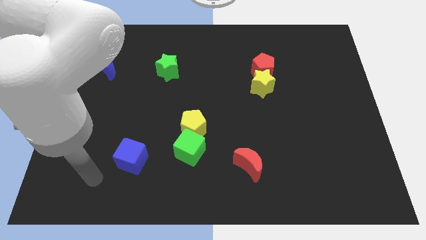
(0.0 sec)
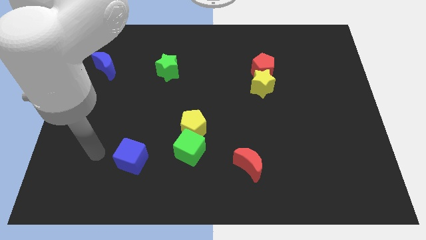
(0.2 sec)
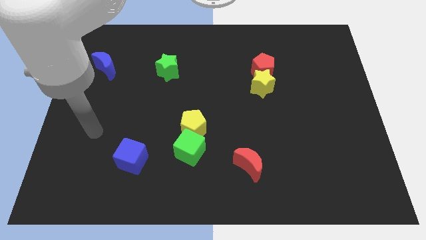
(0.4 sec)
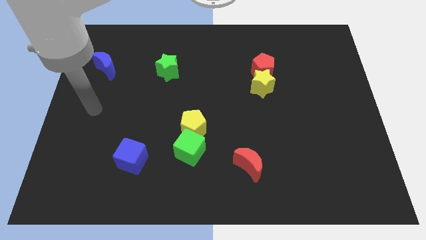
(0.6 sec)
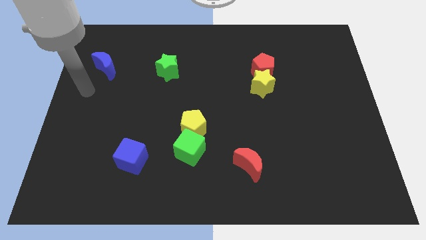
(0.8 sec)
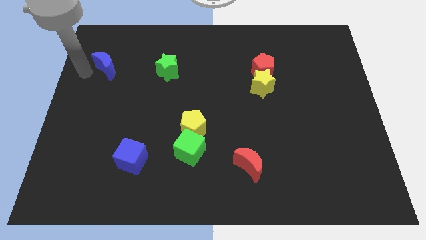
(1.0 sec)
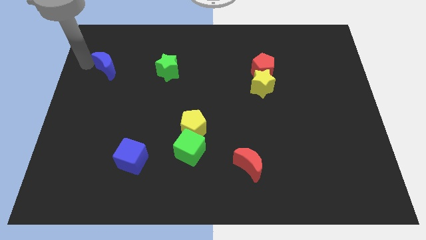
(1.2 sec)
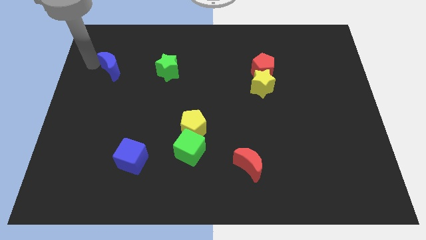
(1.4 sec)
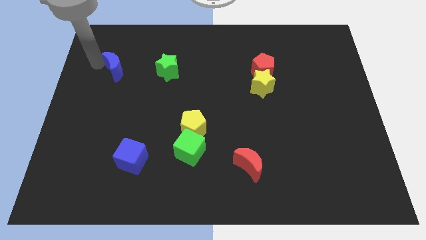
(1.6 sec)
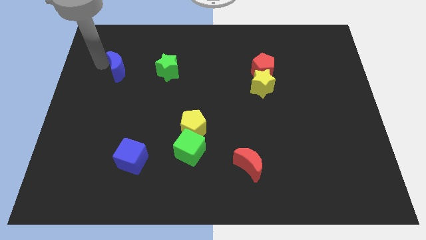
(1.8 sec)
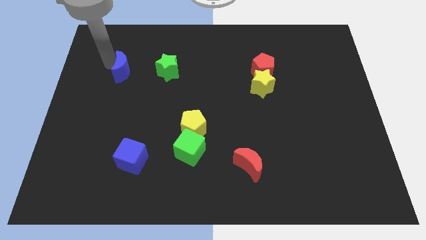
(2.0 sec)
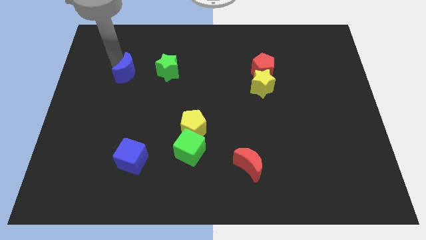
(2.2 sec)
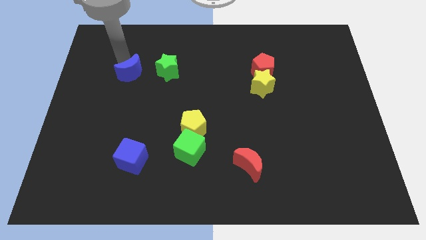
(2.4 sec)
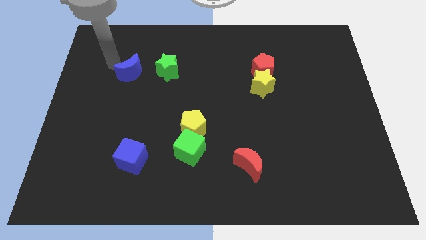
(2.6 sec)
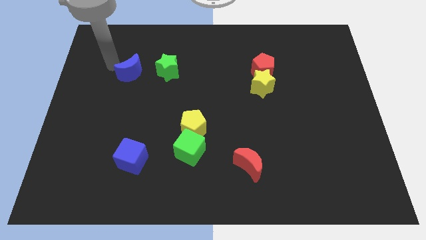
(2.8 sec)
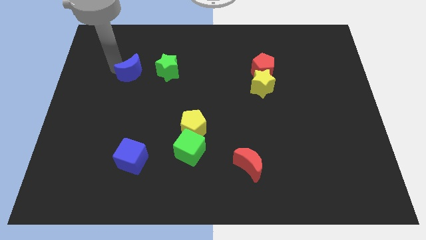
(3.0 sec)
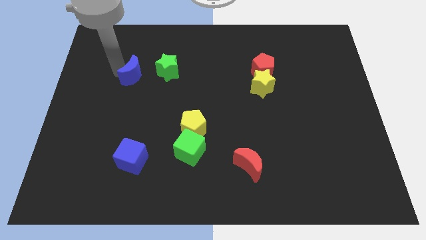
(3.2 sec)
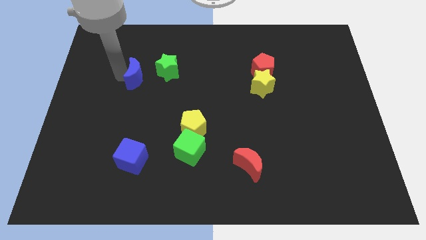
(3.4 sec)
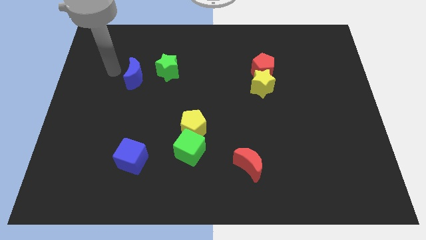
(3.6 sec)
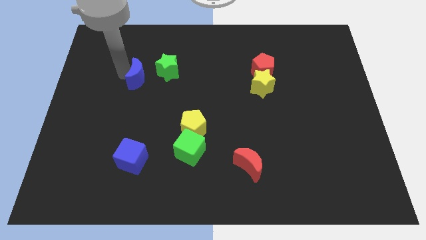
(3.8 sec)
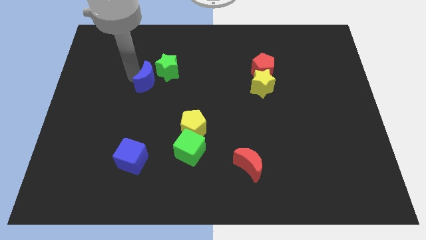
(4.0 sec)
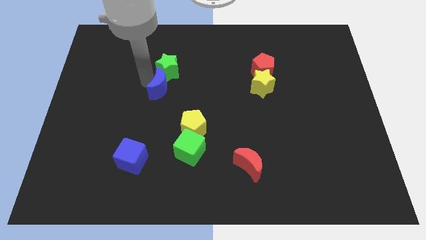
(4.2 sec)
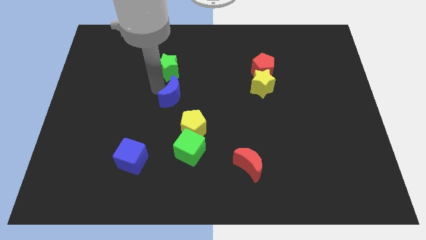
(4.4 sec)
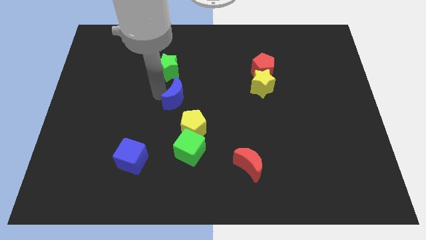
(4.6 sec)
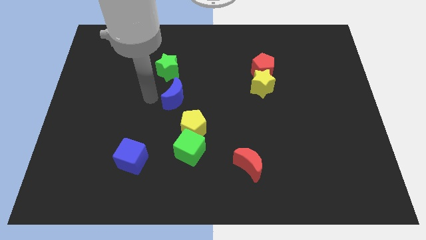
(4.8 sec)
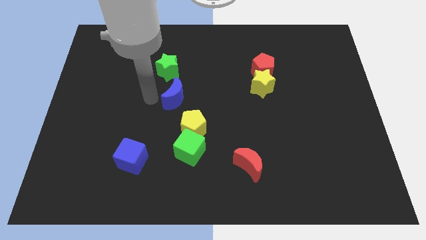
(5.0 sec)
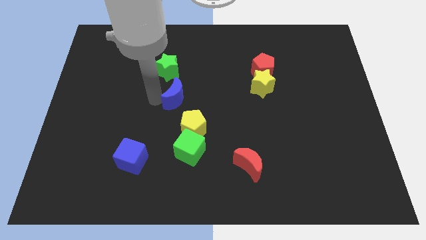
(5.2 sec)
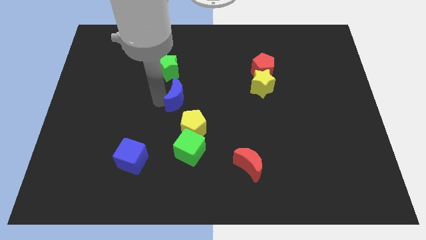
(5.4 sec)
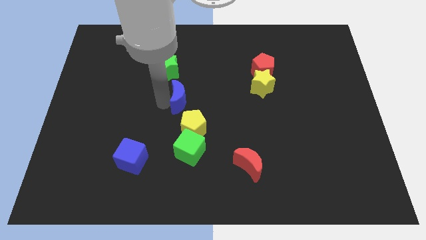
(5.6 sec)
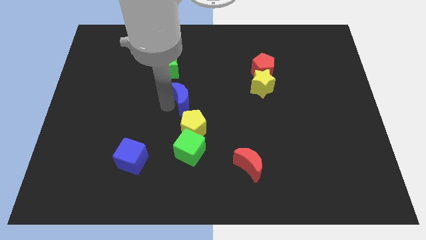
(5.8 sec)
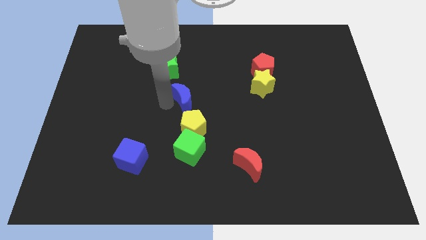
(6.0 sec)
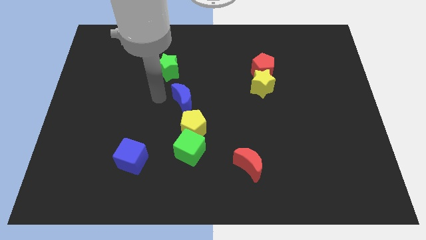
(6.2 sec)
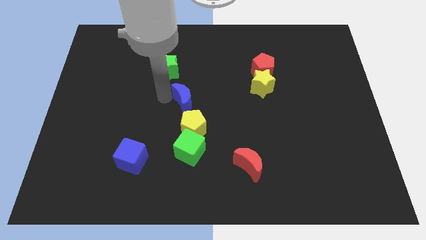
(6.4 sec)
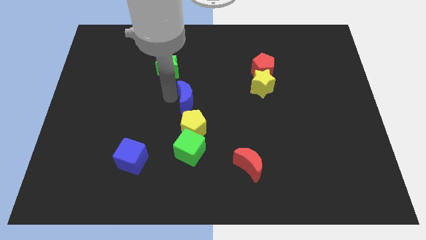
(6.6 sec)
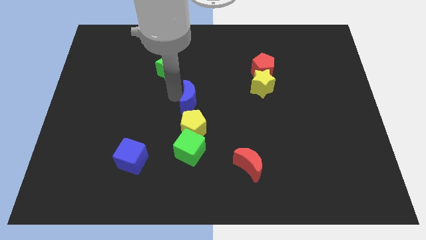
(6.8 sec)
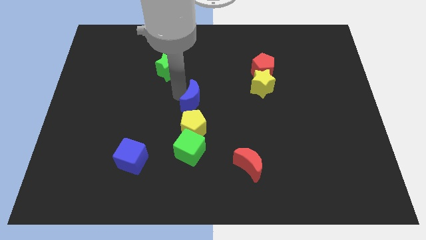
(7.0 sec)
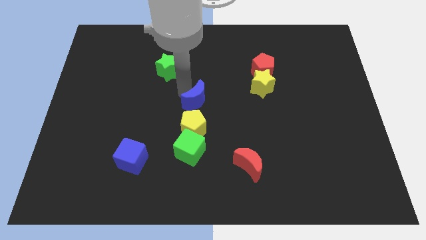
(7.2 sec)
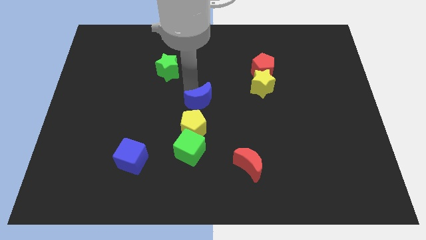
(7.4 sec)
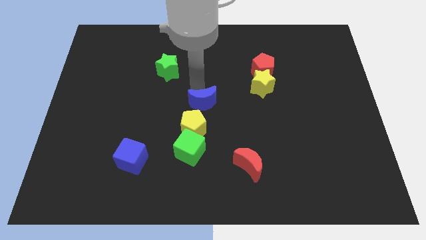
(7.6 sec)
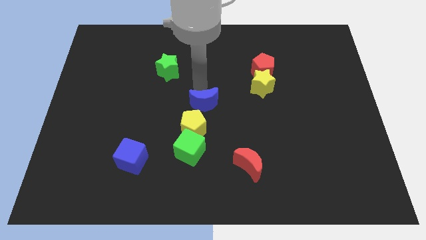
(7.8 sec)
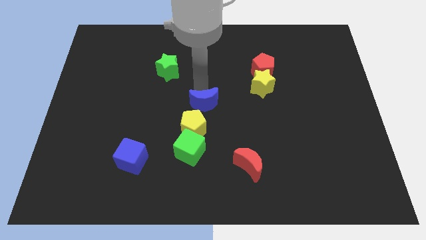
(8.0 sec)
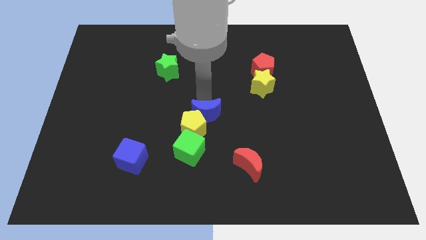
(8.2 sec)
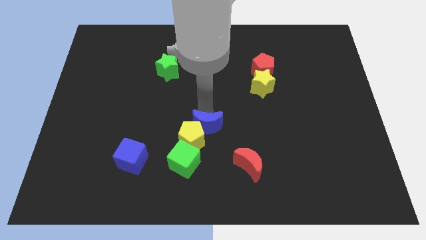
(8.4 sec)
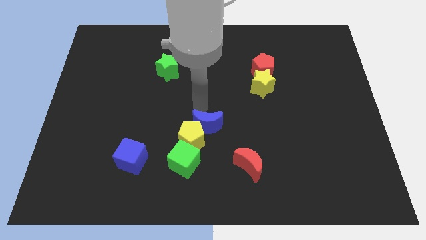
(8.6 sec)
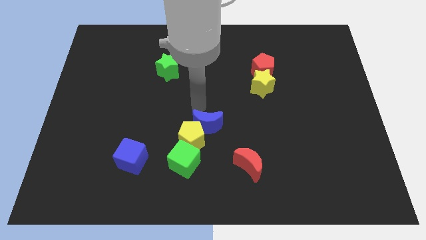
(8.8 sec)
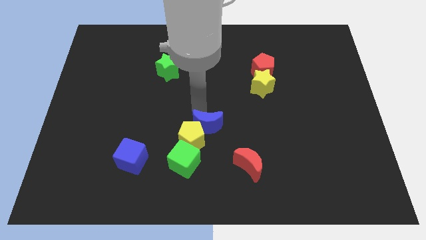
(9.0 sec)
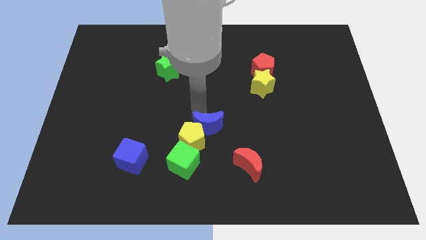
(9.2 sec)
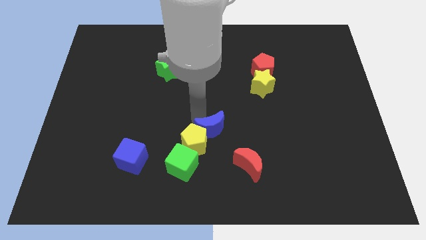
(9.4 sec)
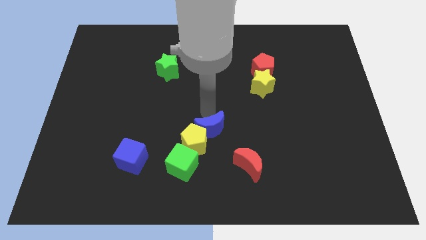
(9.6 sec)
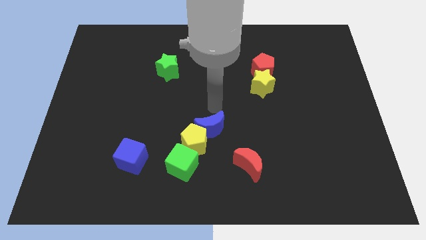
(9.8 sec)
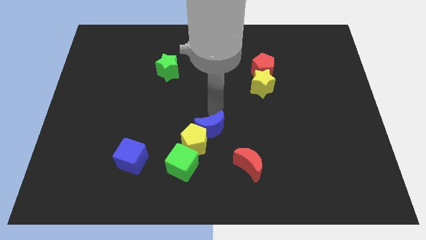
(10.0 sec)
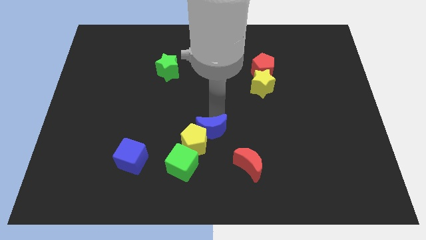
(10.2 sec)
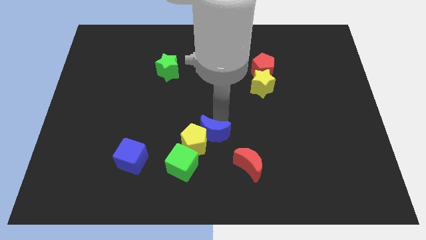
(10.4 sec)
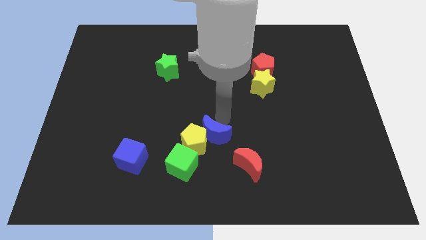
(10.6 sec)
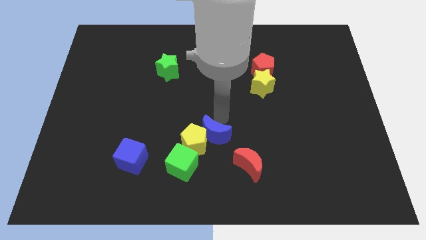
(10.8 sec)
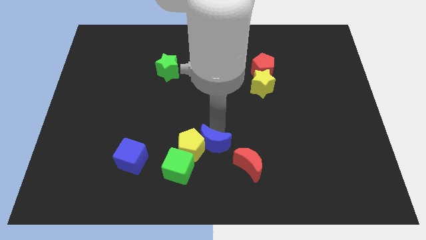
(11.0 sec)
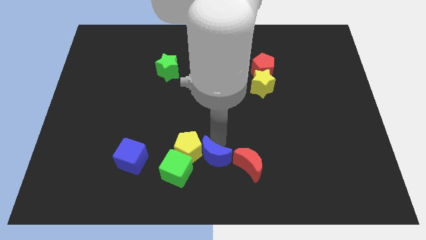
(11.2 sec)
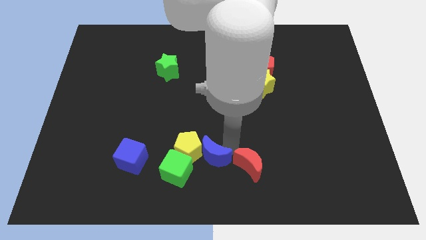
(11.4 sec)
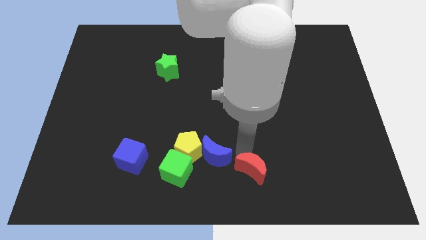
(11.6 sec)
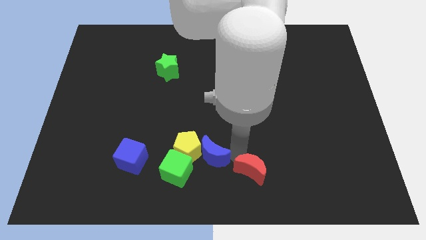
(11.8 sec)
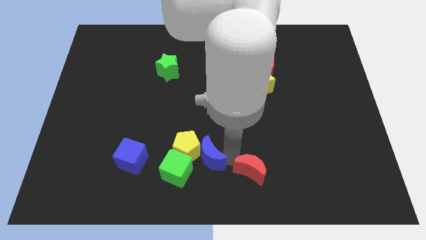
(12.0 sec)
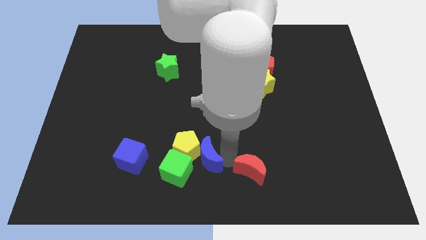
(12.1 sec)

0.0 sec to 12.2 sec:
slide the blue moon right of the blue cube

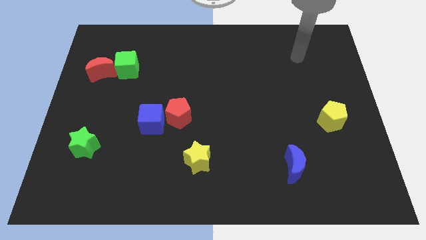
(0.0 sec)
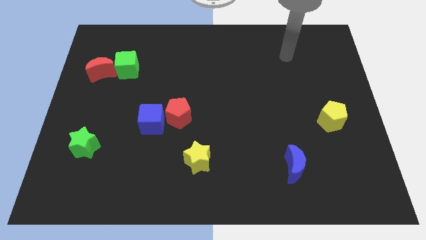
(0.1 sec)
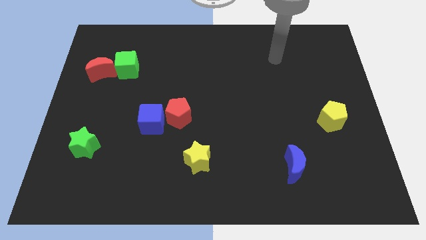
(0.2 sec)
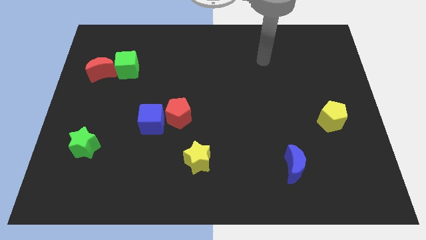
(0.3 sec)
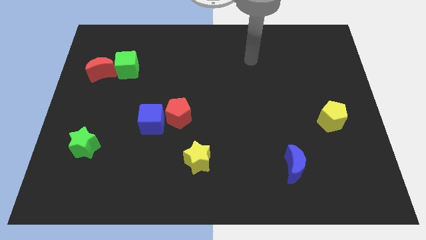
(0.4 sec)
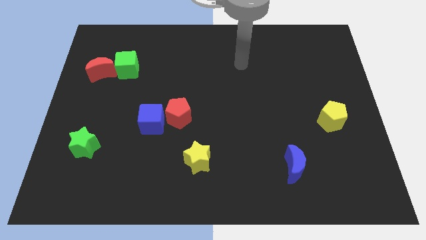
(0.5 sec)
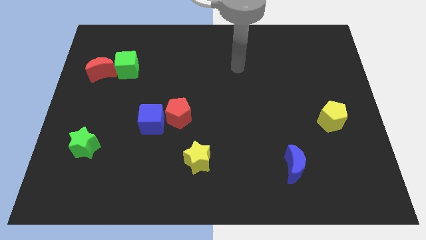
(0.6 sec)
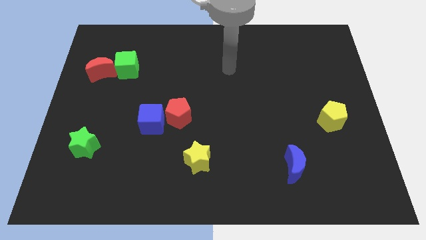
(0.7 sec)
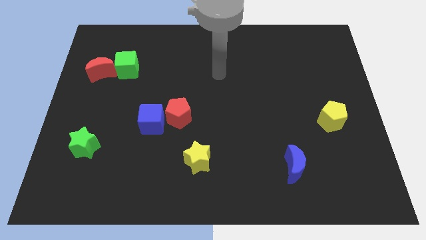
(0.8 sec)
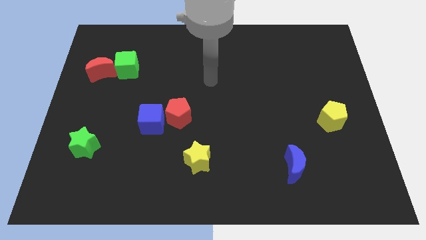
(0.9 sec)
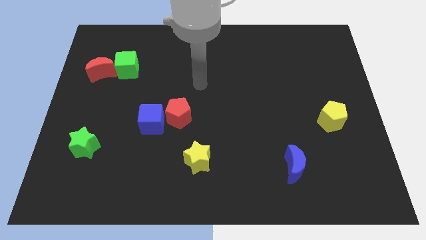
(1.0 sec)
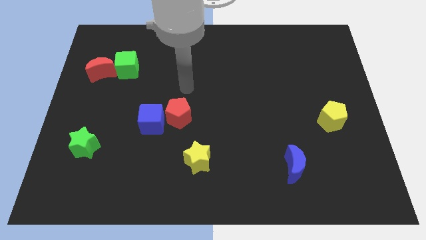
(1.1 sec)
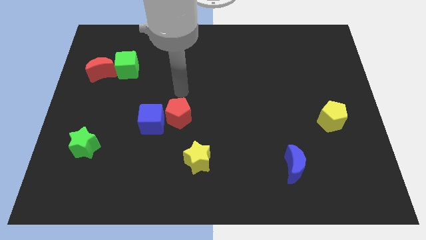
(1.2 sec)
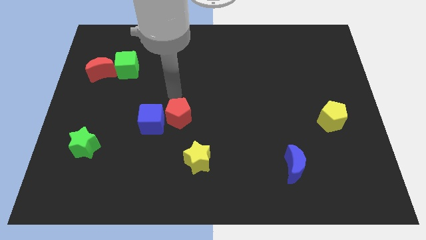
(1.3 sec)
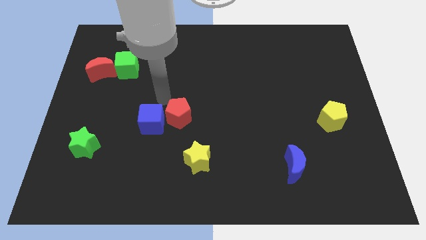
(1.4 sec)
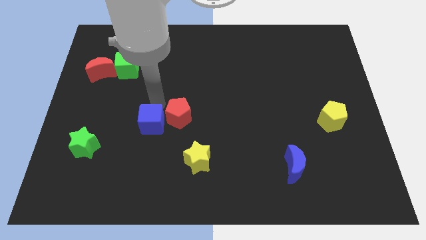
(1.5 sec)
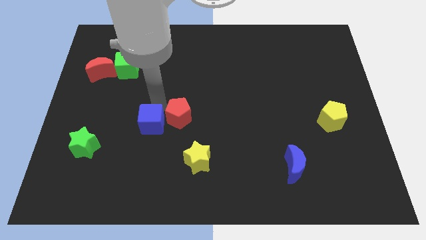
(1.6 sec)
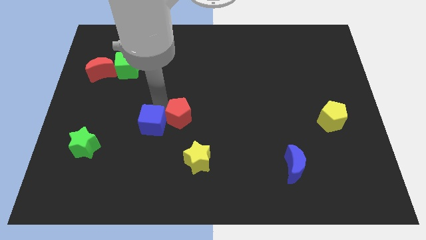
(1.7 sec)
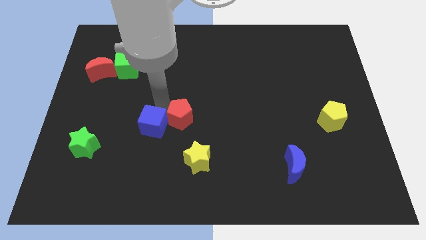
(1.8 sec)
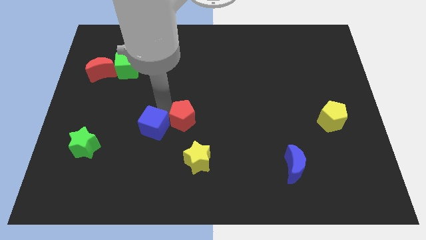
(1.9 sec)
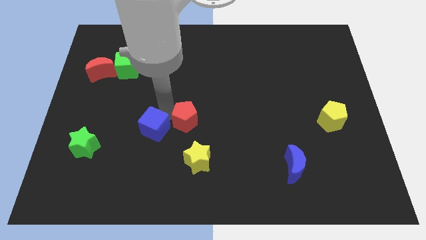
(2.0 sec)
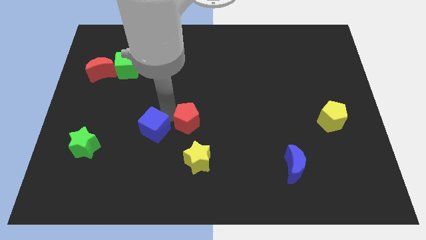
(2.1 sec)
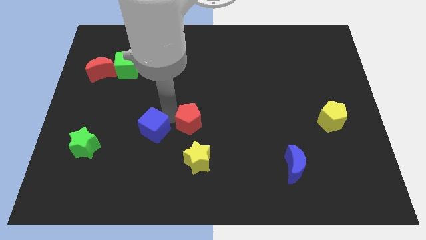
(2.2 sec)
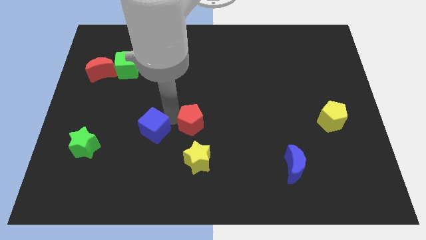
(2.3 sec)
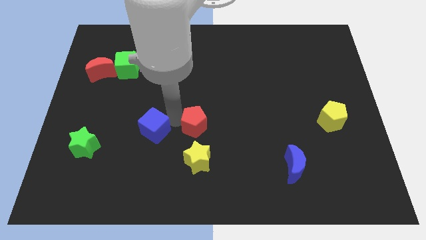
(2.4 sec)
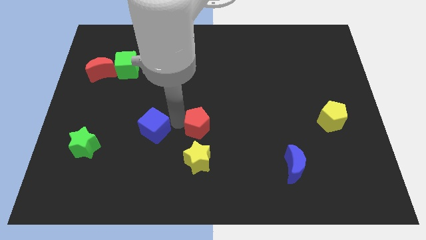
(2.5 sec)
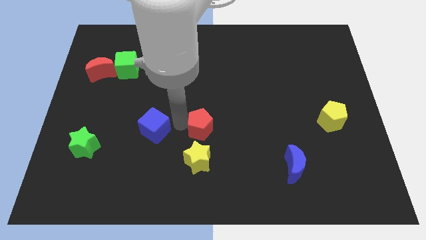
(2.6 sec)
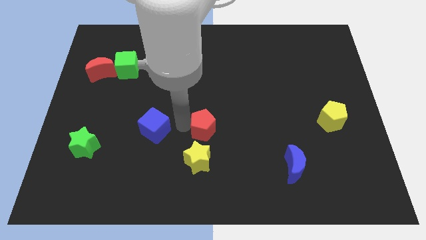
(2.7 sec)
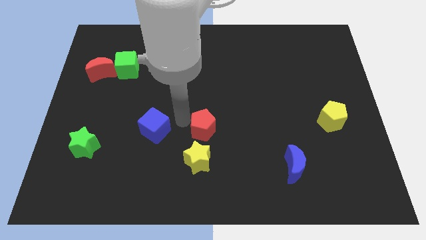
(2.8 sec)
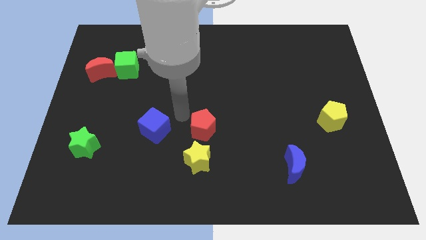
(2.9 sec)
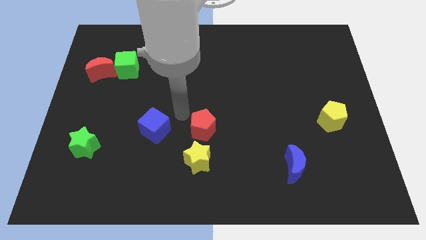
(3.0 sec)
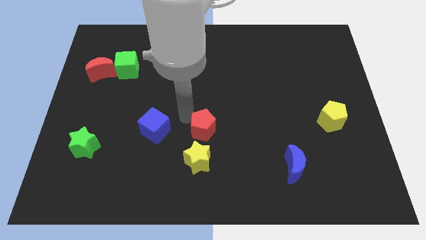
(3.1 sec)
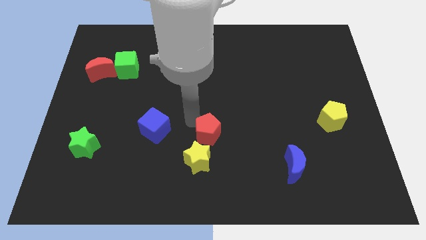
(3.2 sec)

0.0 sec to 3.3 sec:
put the red pentagon to the top right side of the yellow star
